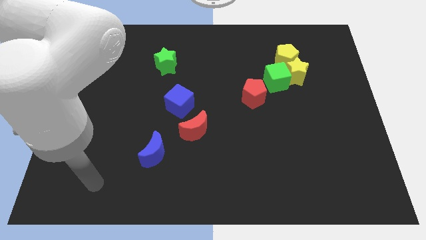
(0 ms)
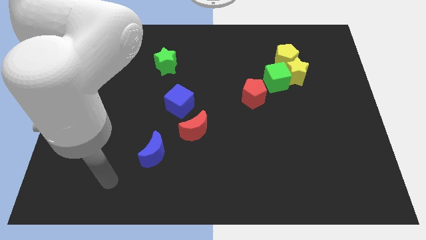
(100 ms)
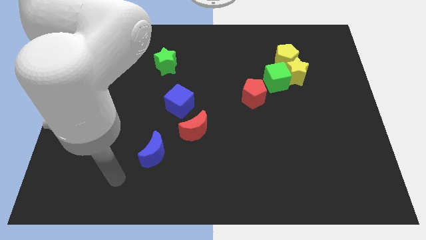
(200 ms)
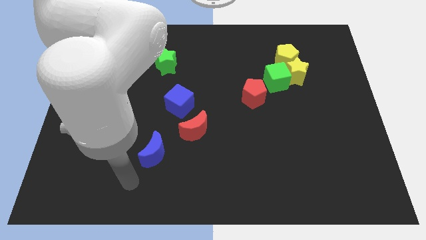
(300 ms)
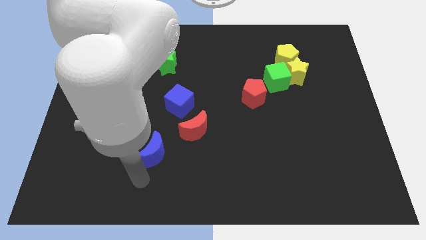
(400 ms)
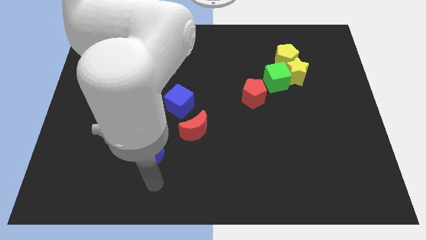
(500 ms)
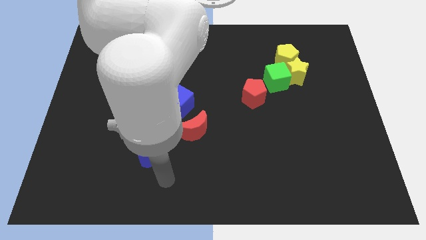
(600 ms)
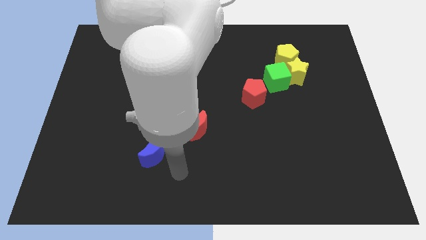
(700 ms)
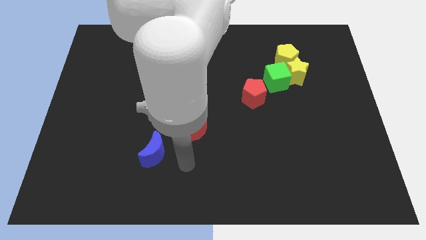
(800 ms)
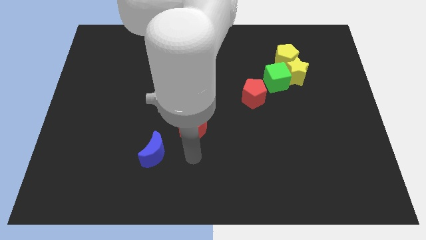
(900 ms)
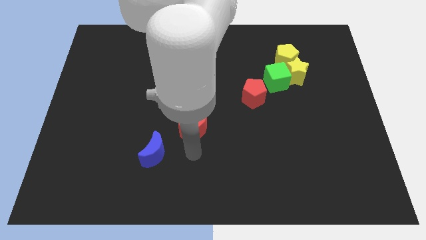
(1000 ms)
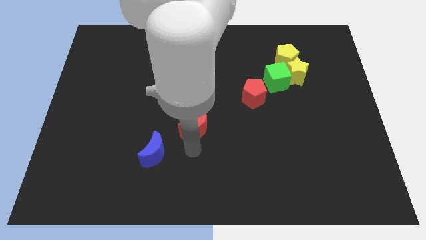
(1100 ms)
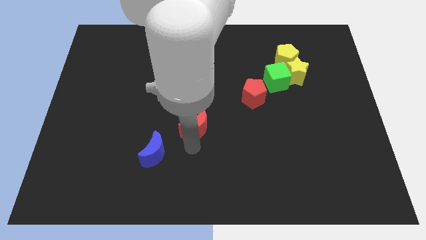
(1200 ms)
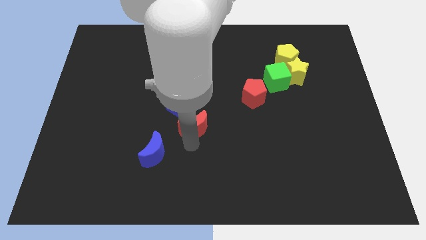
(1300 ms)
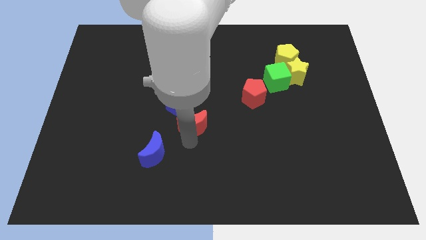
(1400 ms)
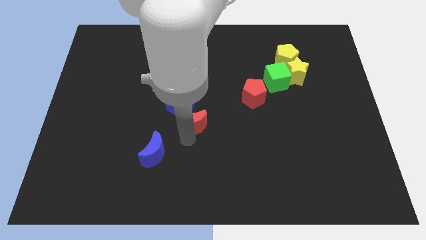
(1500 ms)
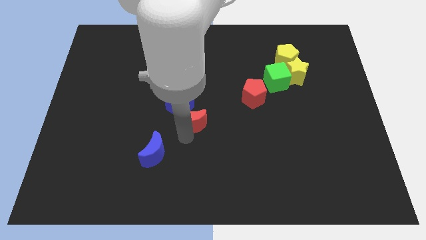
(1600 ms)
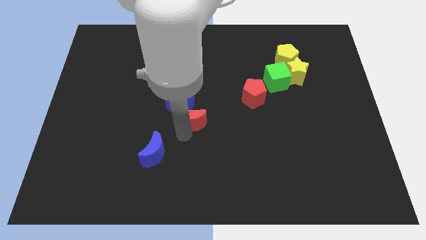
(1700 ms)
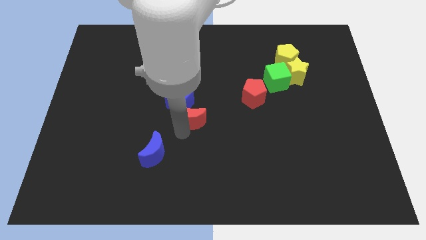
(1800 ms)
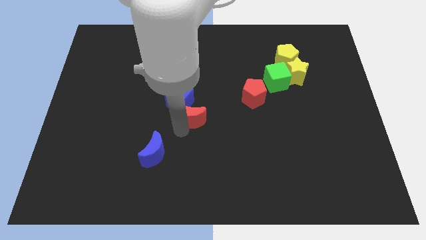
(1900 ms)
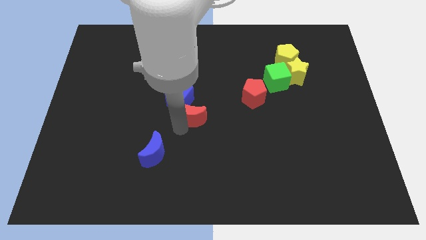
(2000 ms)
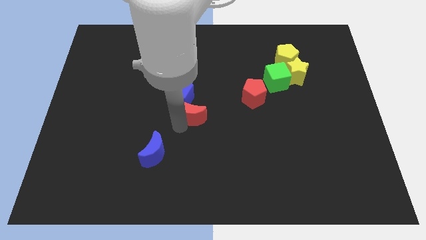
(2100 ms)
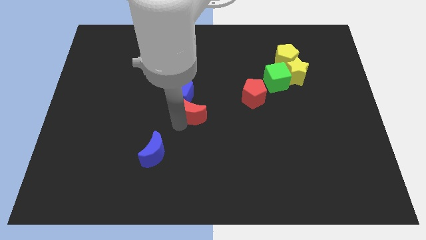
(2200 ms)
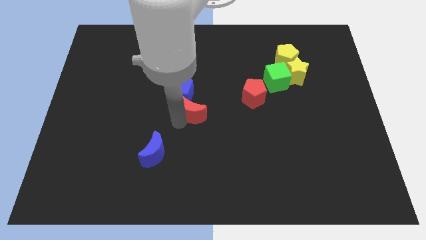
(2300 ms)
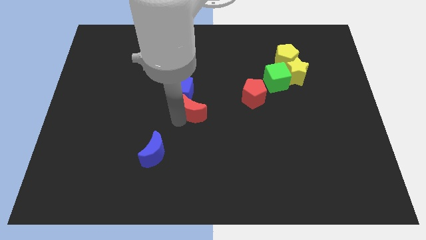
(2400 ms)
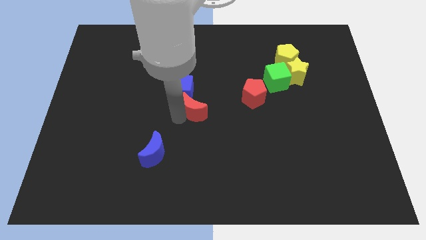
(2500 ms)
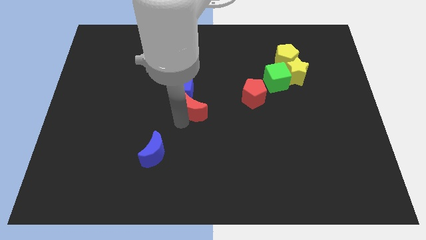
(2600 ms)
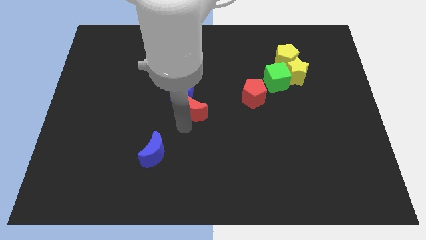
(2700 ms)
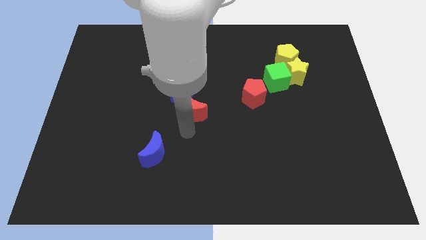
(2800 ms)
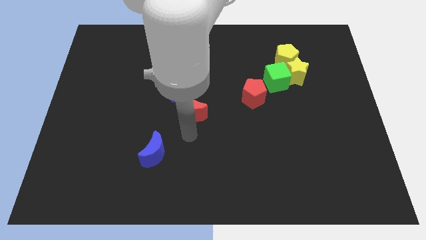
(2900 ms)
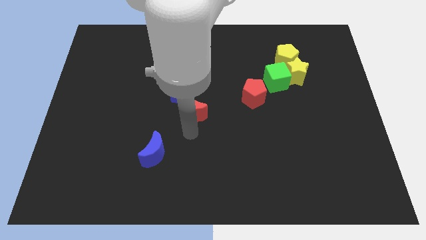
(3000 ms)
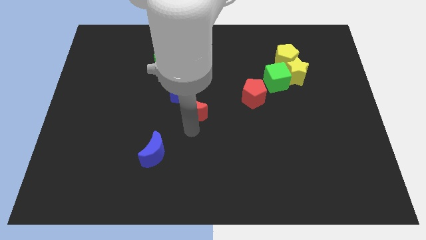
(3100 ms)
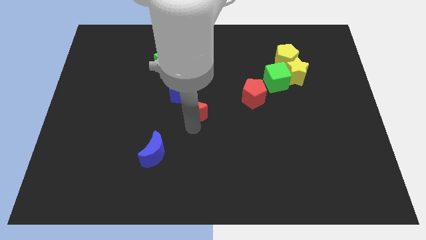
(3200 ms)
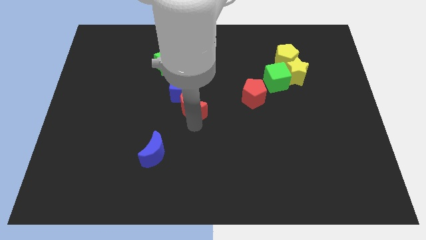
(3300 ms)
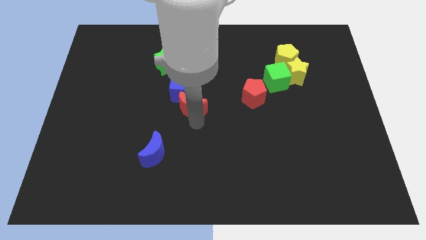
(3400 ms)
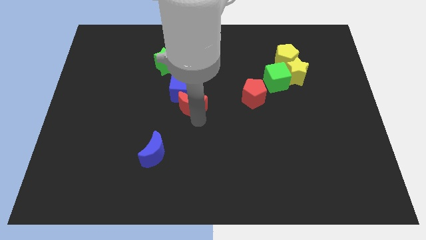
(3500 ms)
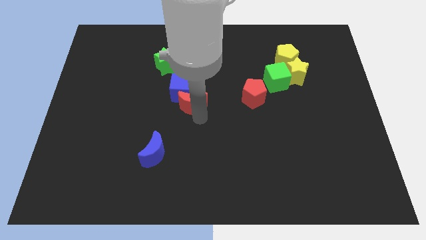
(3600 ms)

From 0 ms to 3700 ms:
push the red moon slightly up

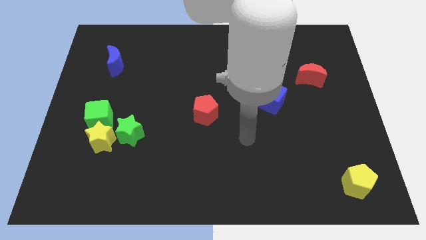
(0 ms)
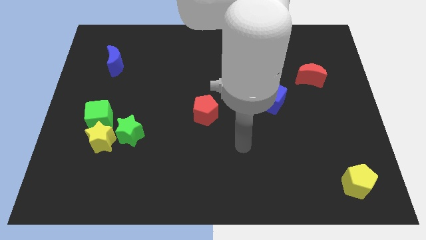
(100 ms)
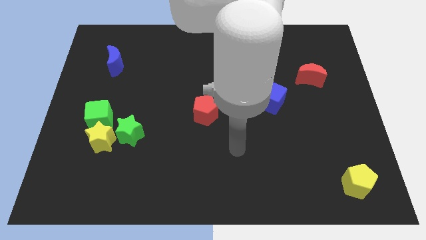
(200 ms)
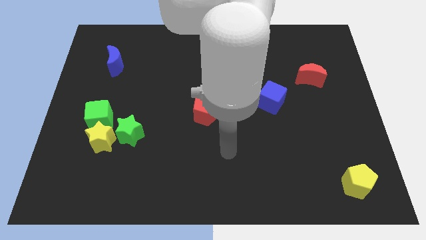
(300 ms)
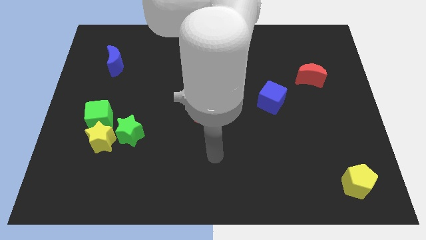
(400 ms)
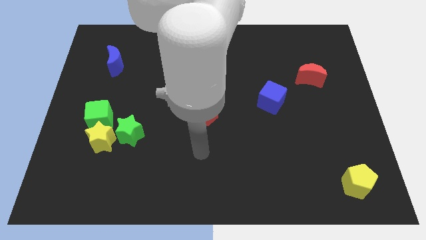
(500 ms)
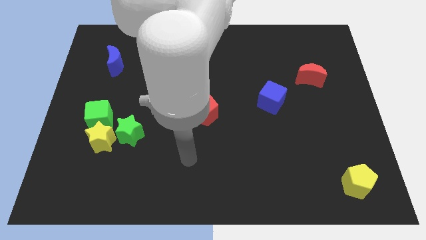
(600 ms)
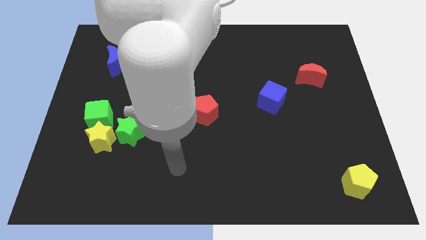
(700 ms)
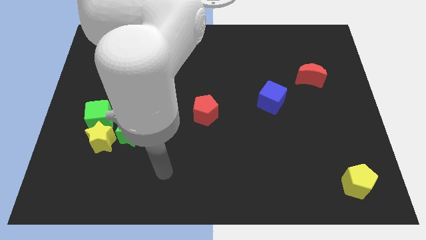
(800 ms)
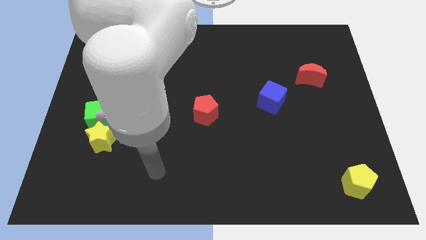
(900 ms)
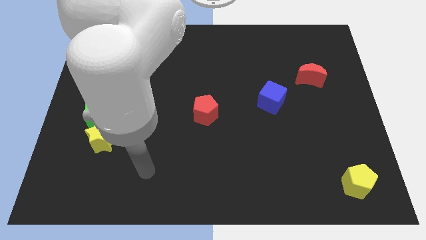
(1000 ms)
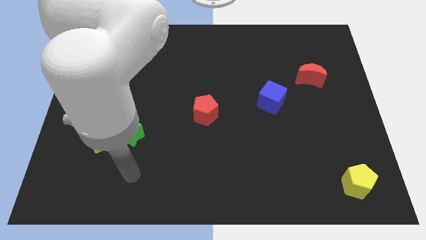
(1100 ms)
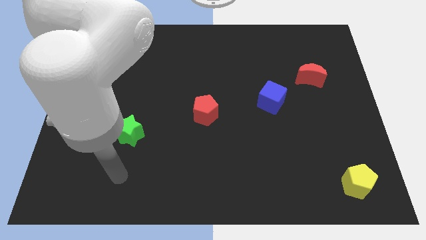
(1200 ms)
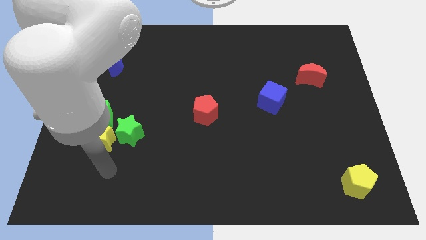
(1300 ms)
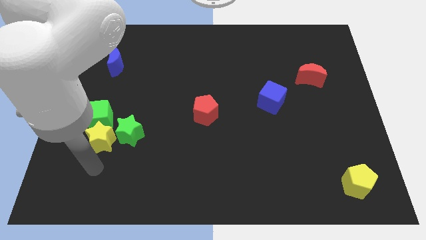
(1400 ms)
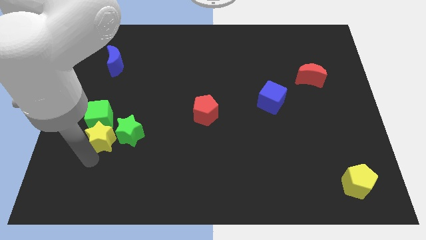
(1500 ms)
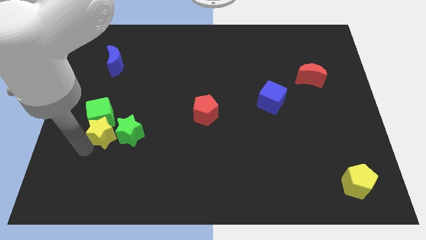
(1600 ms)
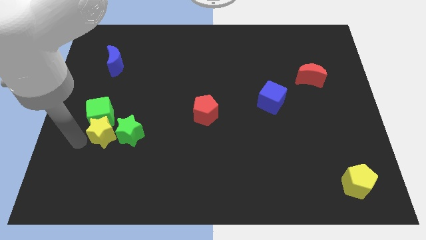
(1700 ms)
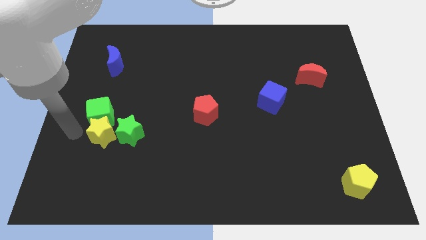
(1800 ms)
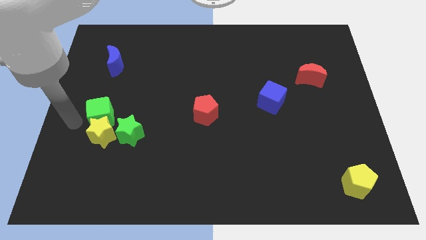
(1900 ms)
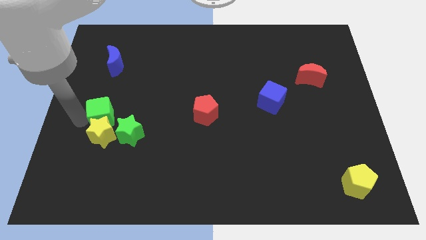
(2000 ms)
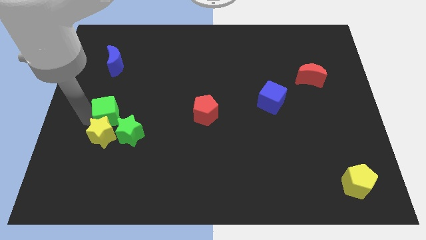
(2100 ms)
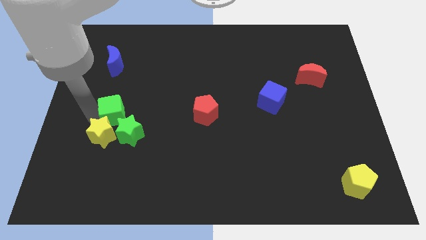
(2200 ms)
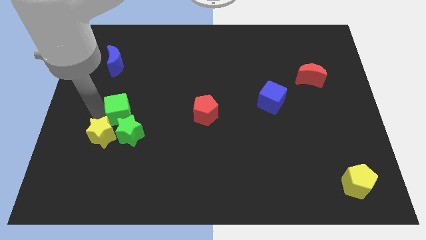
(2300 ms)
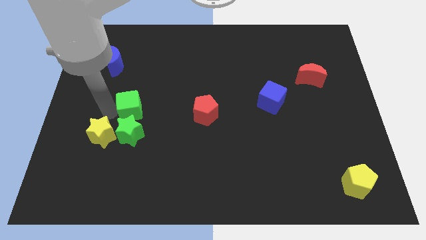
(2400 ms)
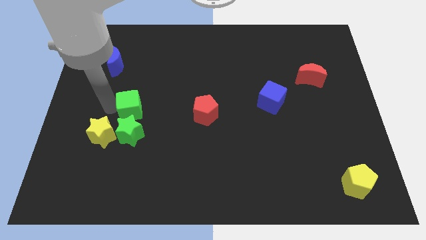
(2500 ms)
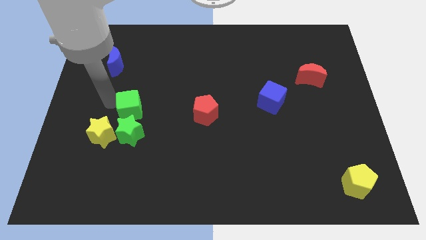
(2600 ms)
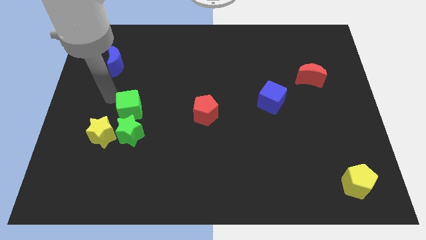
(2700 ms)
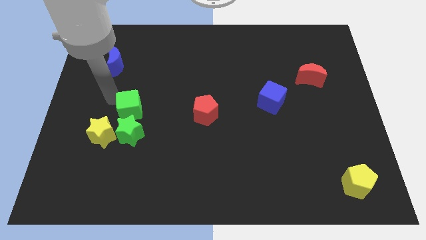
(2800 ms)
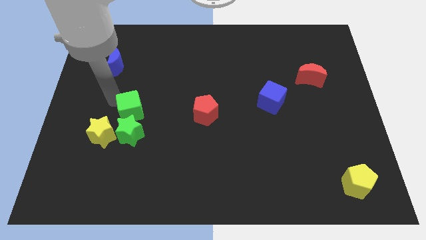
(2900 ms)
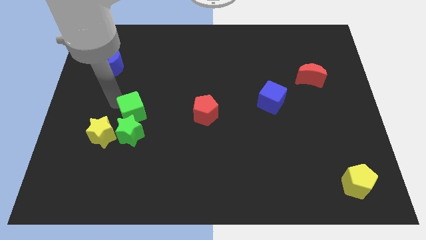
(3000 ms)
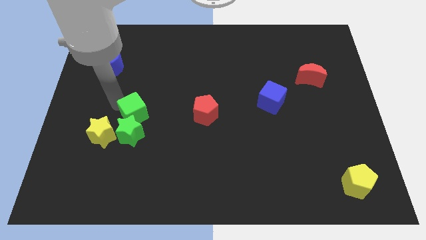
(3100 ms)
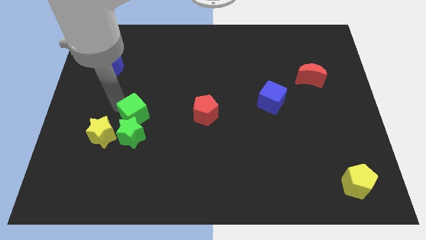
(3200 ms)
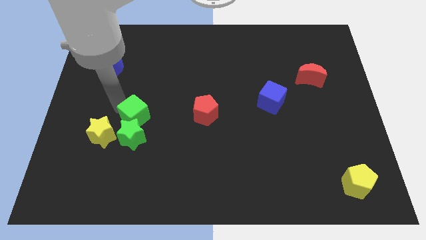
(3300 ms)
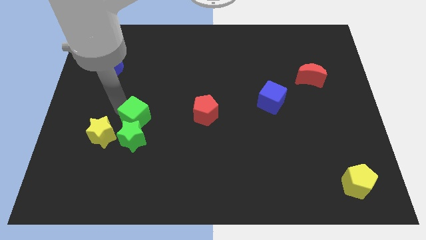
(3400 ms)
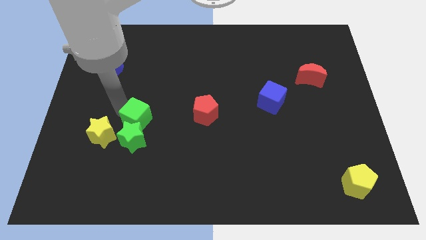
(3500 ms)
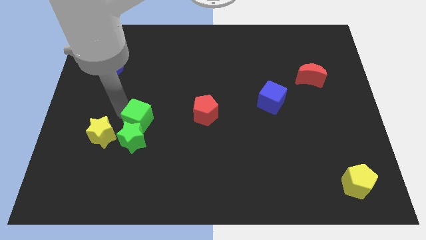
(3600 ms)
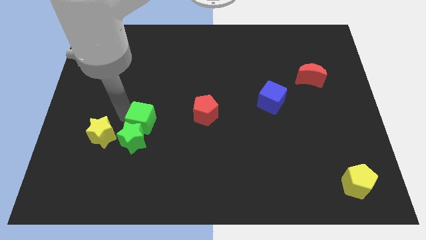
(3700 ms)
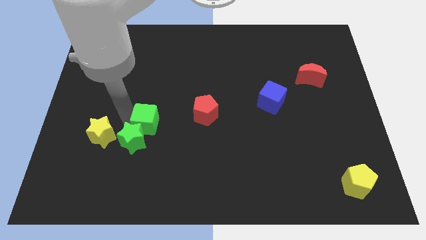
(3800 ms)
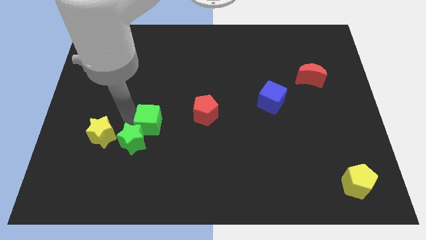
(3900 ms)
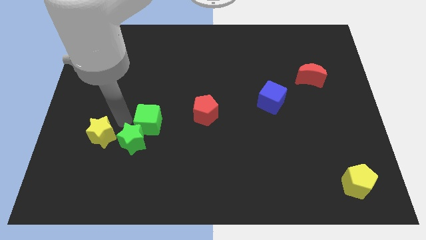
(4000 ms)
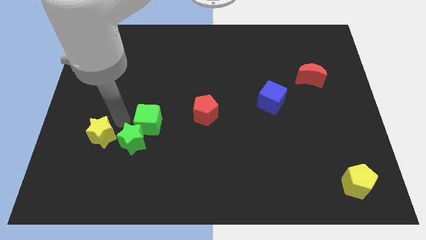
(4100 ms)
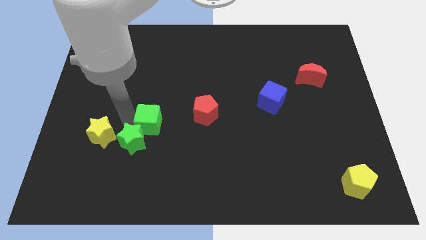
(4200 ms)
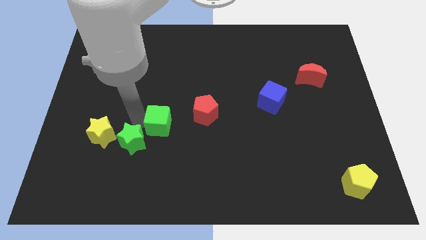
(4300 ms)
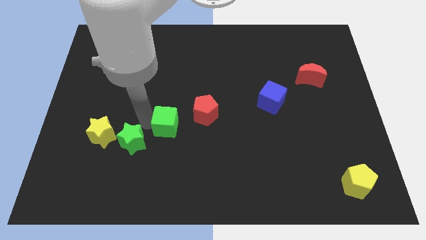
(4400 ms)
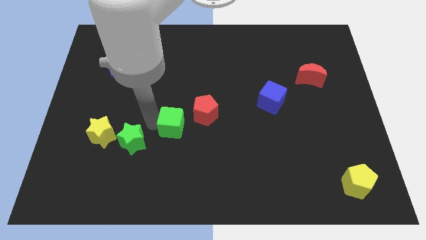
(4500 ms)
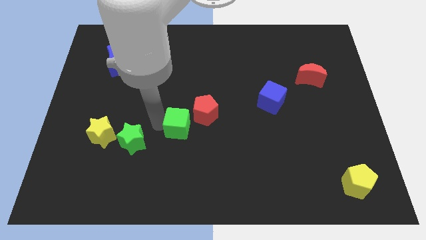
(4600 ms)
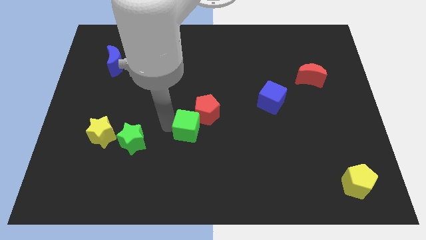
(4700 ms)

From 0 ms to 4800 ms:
slide the green cube to the right
